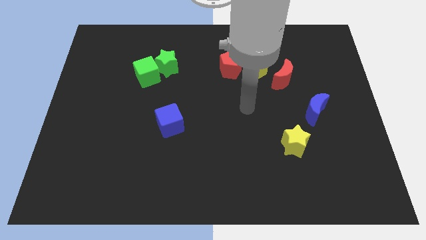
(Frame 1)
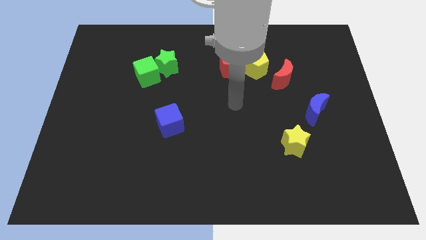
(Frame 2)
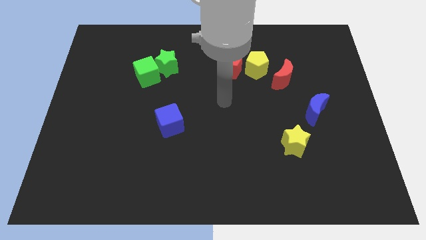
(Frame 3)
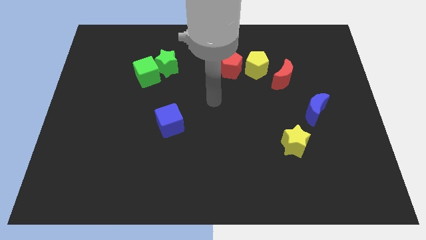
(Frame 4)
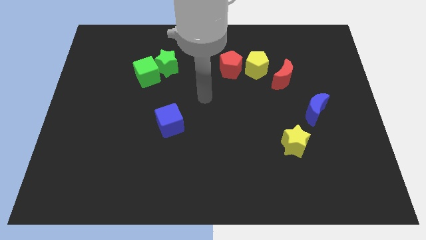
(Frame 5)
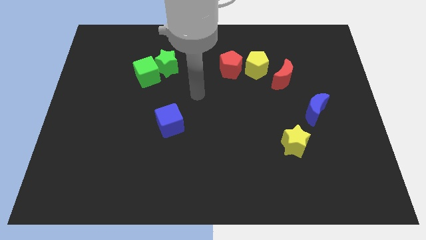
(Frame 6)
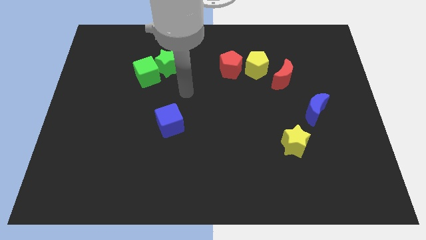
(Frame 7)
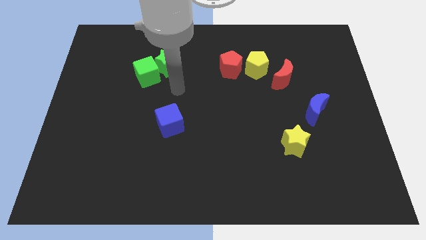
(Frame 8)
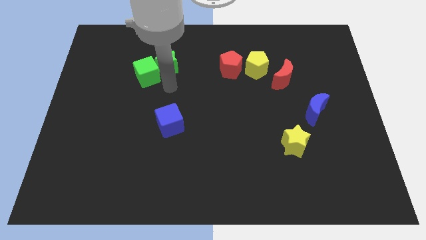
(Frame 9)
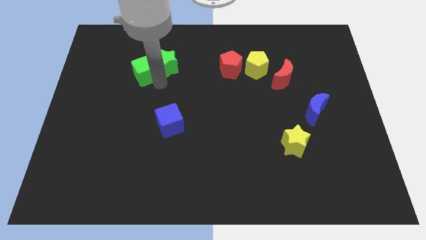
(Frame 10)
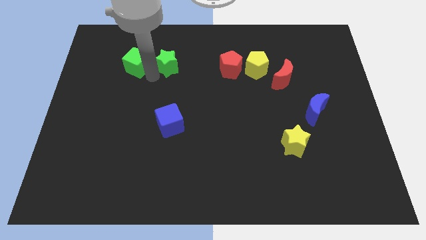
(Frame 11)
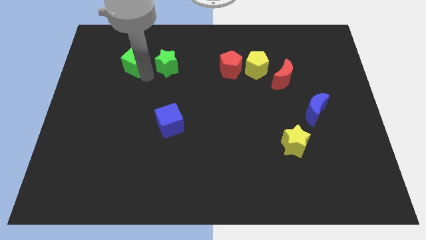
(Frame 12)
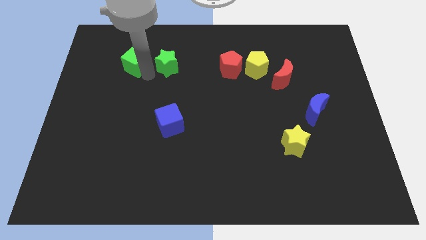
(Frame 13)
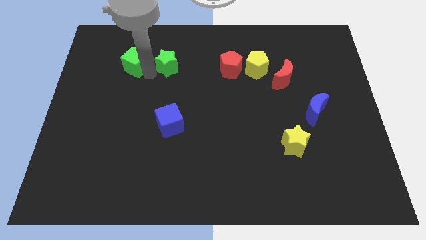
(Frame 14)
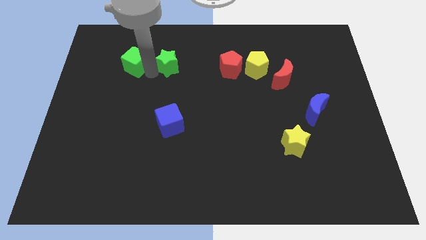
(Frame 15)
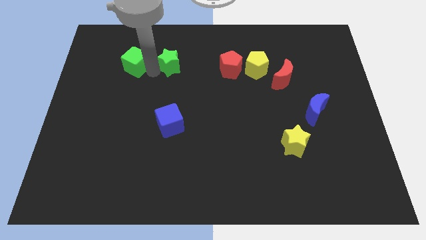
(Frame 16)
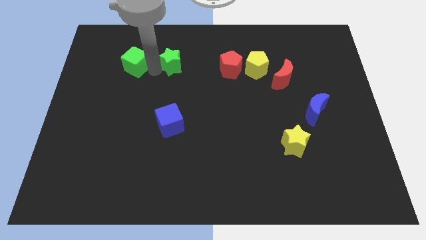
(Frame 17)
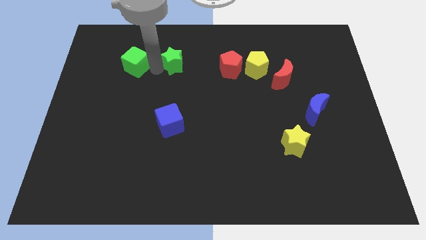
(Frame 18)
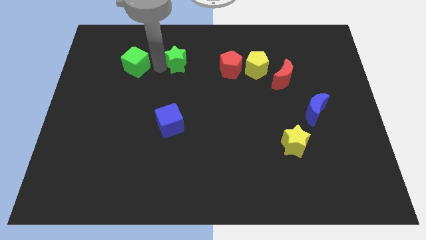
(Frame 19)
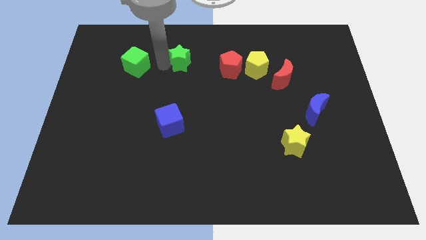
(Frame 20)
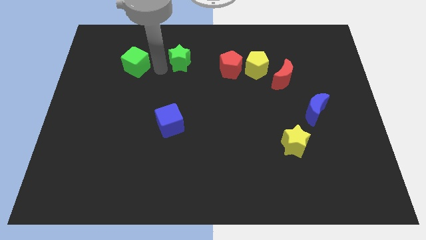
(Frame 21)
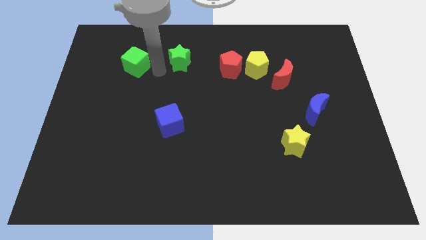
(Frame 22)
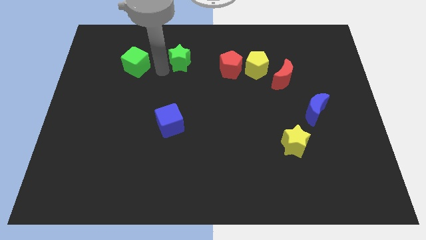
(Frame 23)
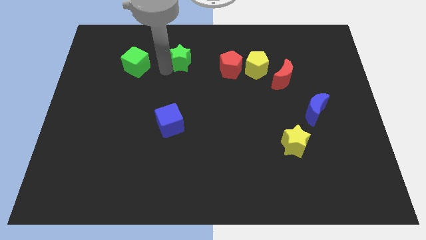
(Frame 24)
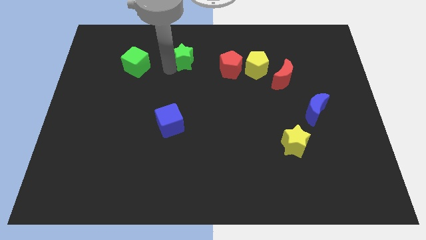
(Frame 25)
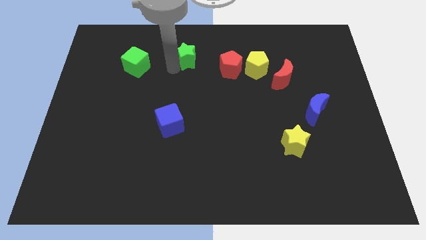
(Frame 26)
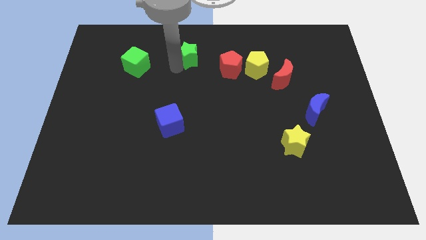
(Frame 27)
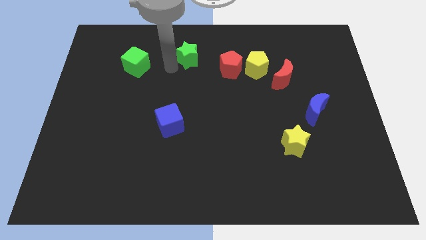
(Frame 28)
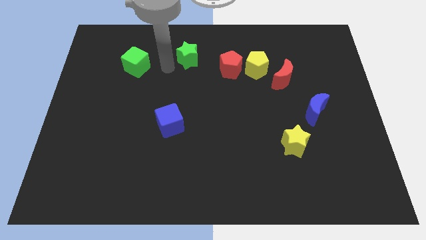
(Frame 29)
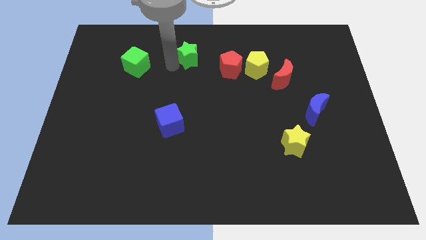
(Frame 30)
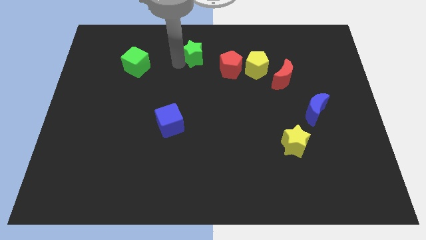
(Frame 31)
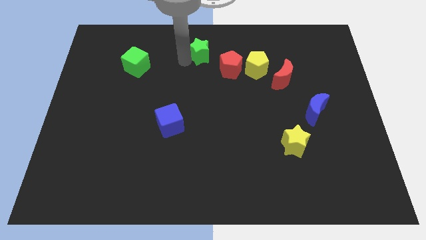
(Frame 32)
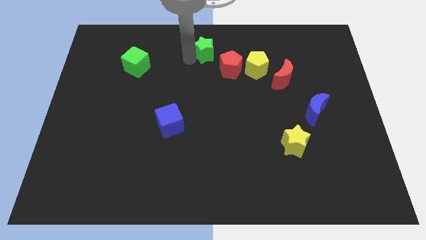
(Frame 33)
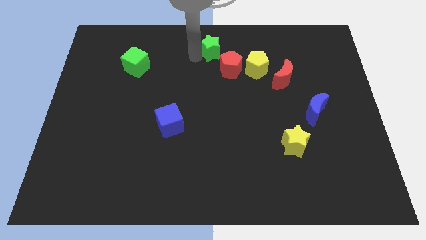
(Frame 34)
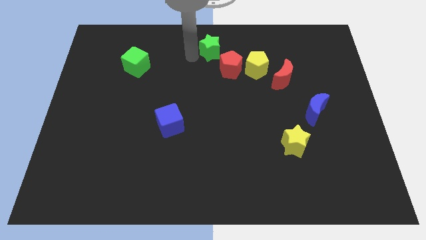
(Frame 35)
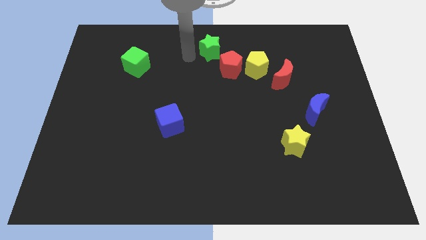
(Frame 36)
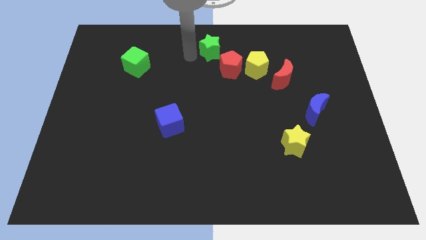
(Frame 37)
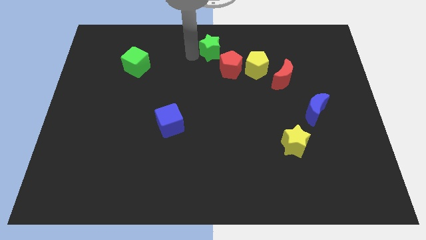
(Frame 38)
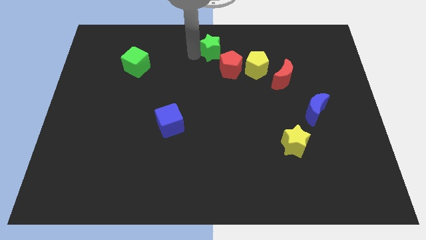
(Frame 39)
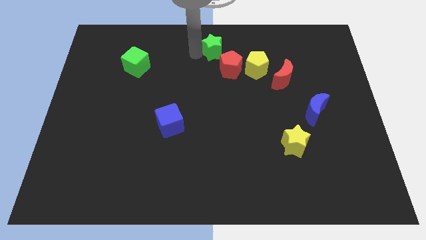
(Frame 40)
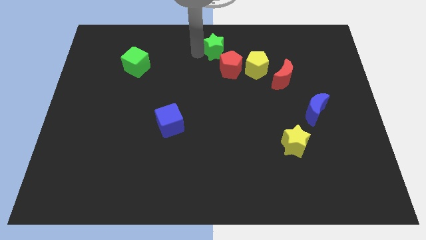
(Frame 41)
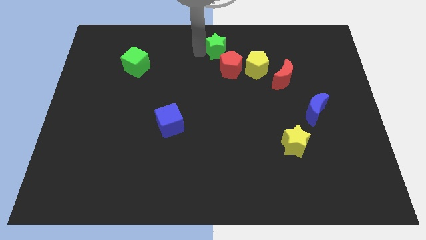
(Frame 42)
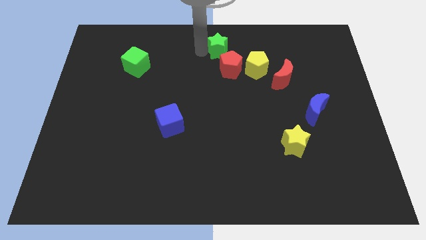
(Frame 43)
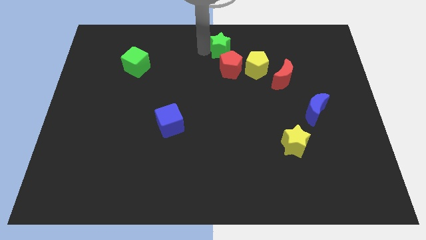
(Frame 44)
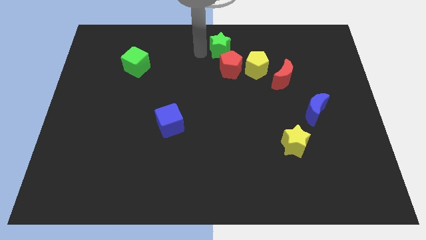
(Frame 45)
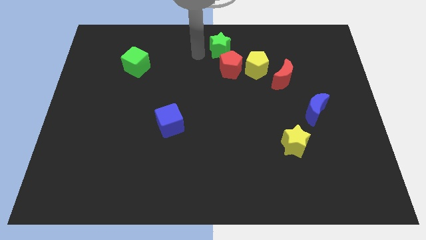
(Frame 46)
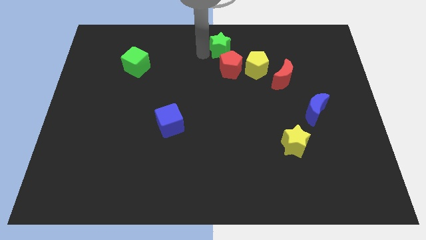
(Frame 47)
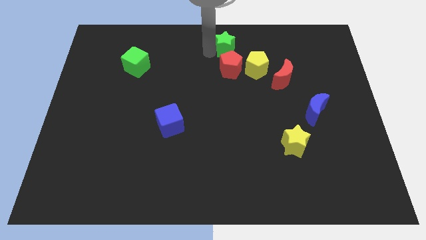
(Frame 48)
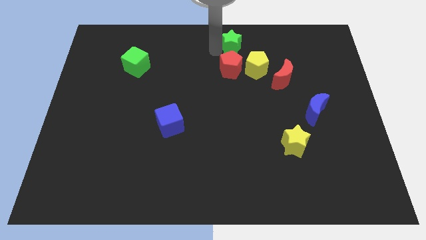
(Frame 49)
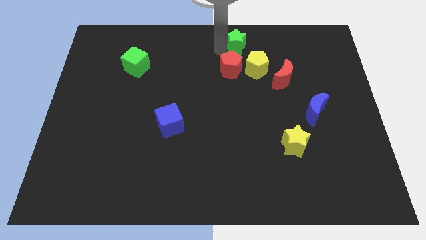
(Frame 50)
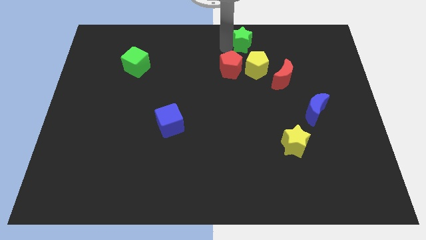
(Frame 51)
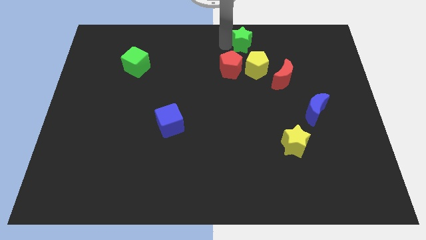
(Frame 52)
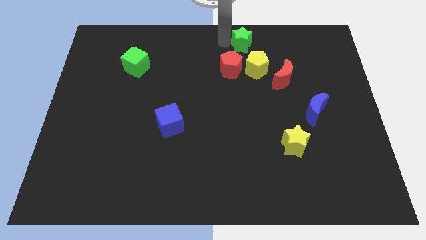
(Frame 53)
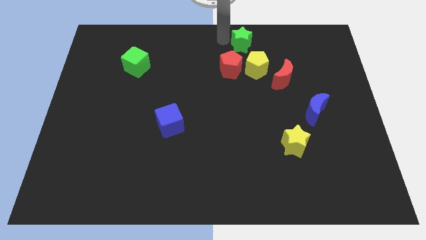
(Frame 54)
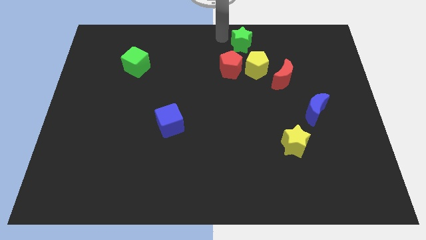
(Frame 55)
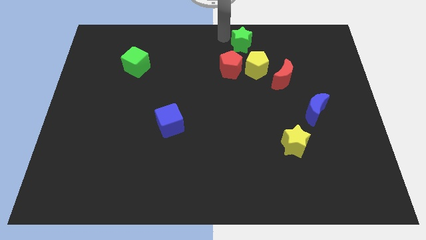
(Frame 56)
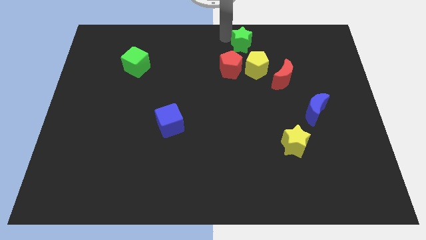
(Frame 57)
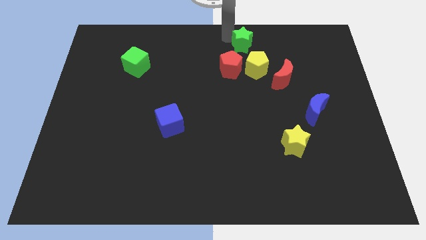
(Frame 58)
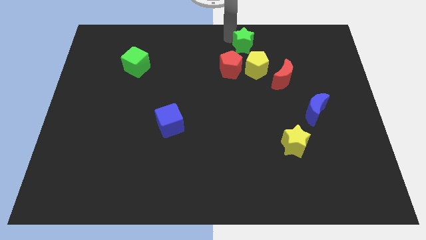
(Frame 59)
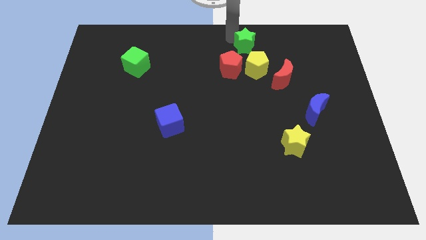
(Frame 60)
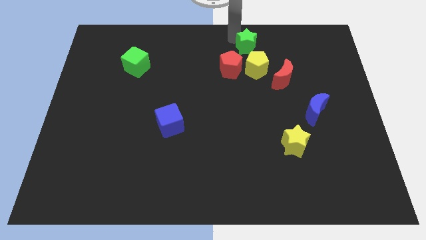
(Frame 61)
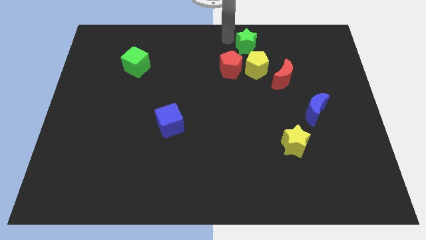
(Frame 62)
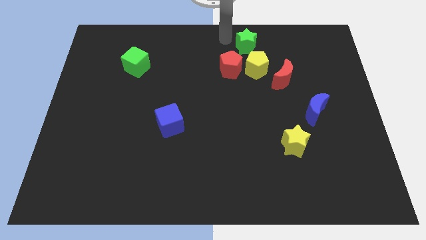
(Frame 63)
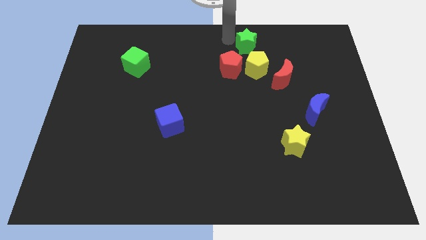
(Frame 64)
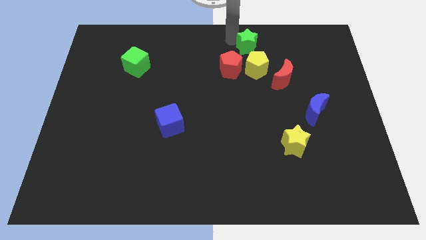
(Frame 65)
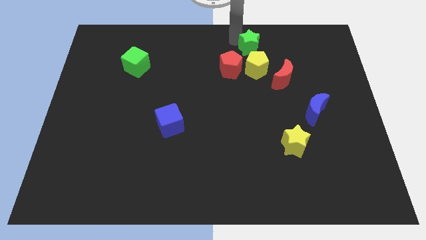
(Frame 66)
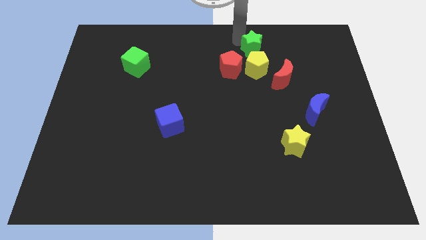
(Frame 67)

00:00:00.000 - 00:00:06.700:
slide the green star right

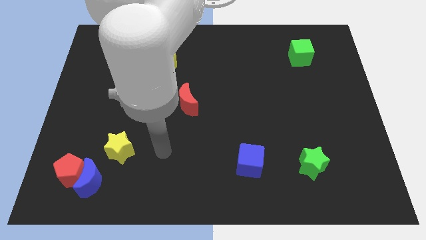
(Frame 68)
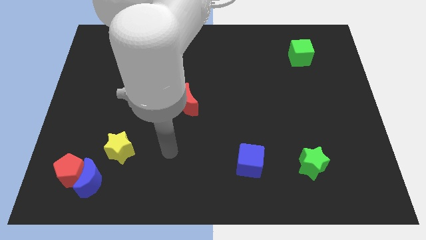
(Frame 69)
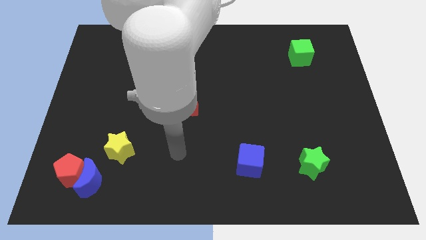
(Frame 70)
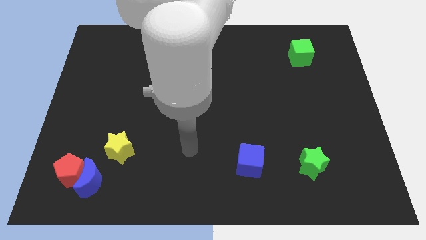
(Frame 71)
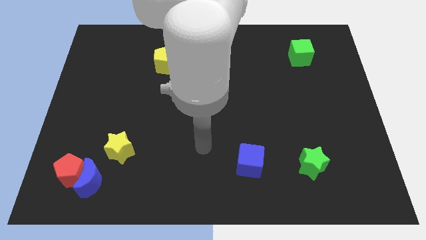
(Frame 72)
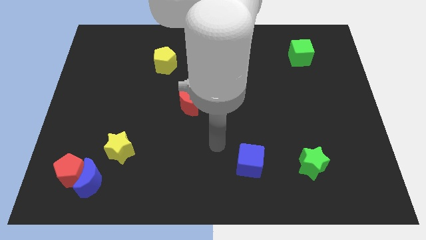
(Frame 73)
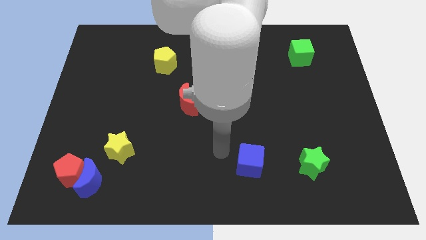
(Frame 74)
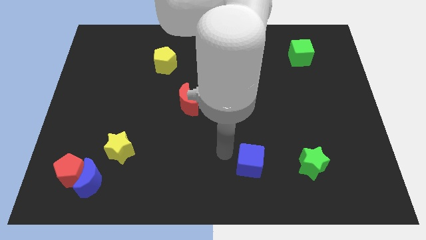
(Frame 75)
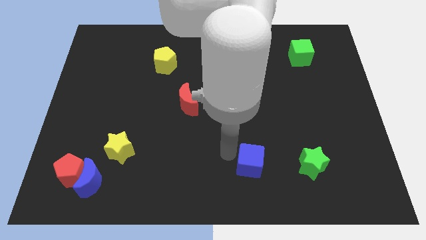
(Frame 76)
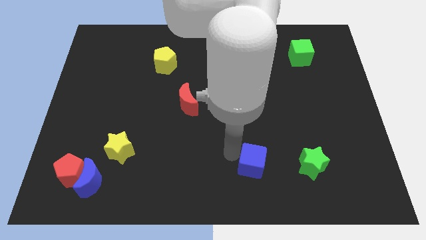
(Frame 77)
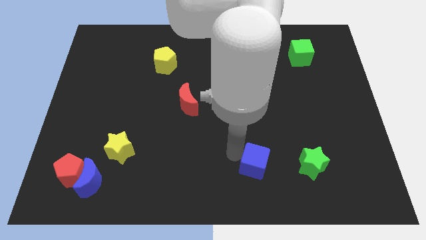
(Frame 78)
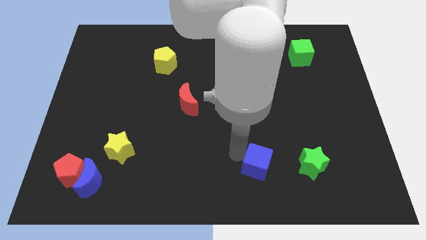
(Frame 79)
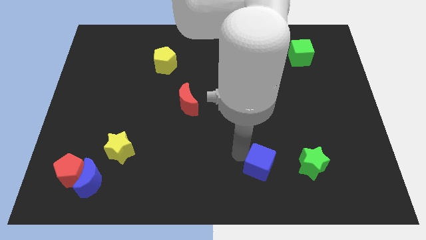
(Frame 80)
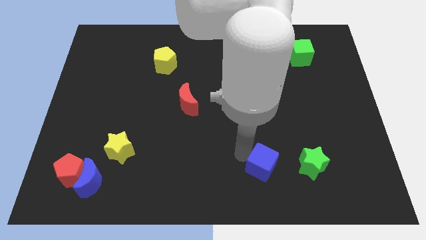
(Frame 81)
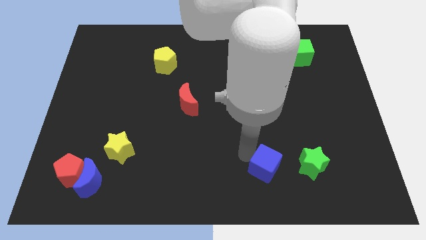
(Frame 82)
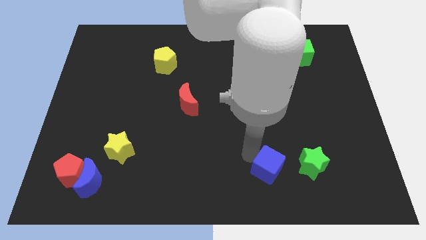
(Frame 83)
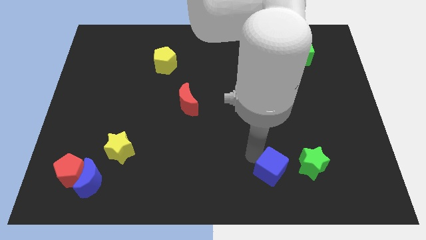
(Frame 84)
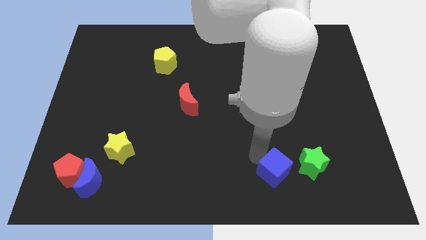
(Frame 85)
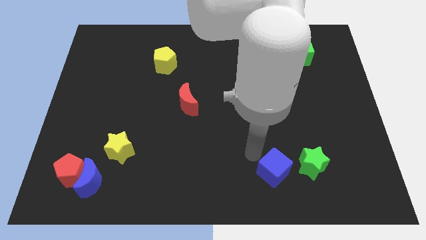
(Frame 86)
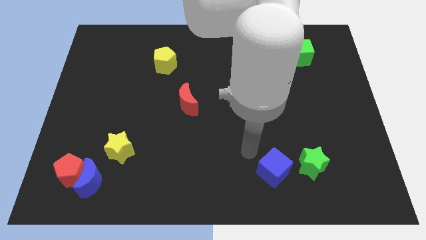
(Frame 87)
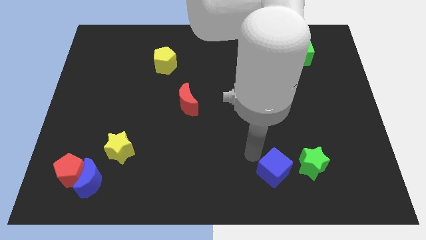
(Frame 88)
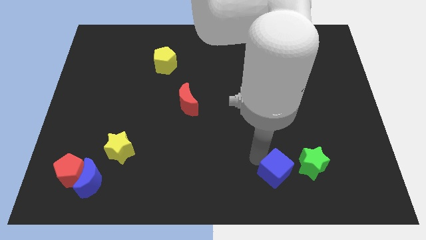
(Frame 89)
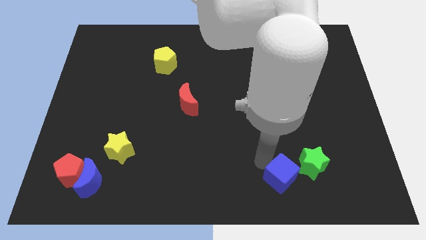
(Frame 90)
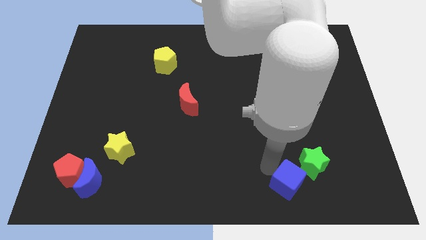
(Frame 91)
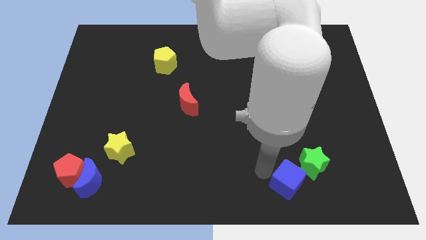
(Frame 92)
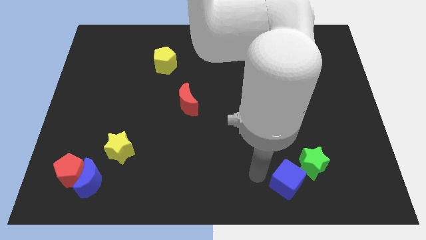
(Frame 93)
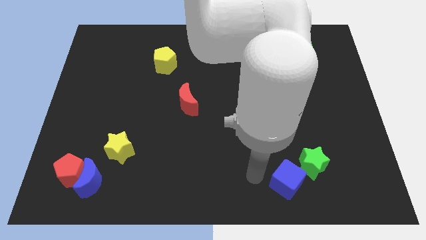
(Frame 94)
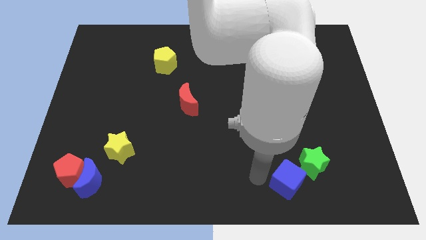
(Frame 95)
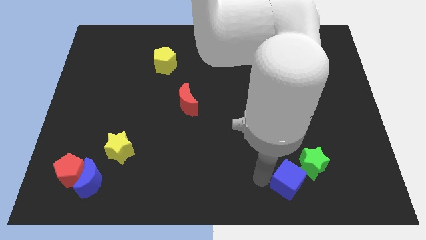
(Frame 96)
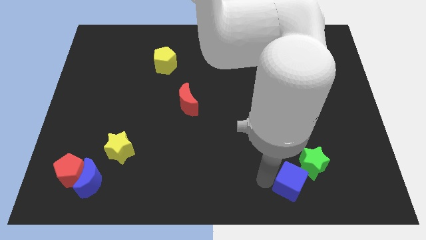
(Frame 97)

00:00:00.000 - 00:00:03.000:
move the blue cube slightly right
